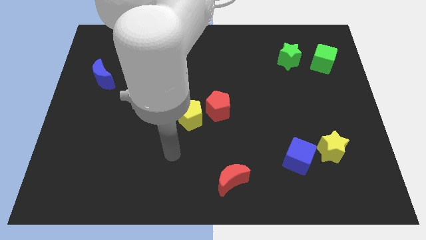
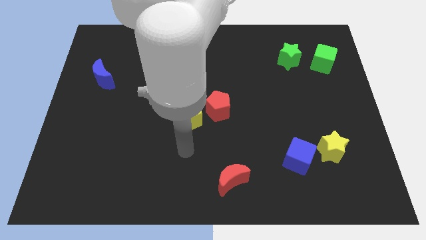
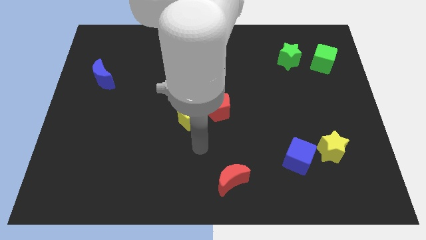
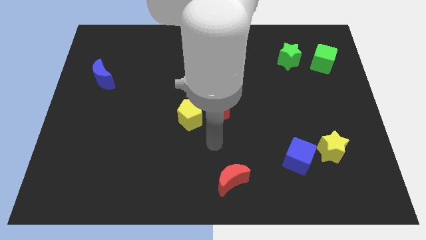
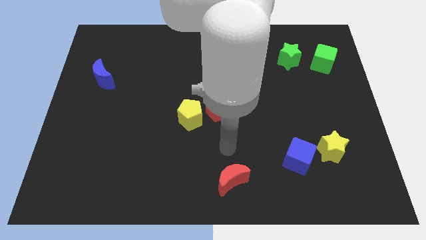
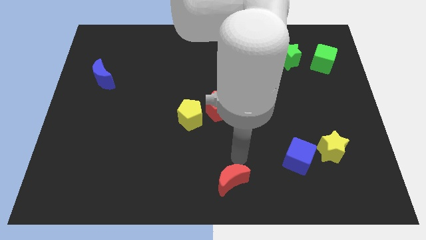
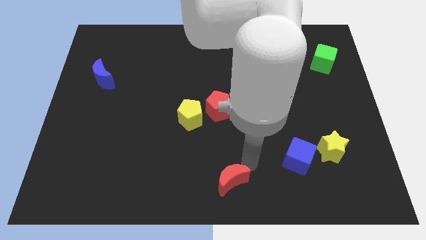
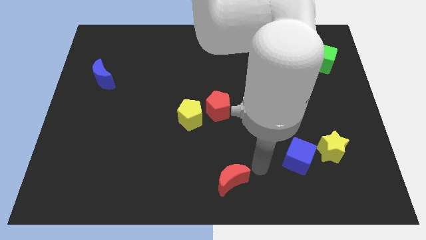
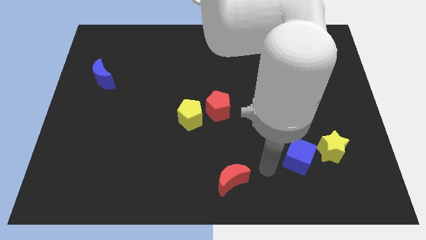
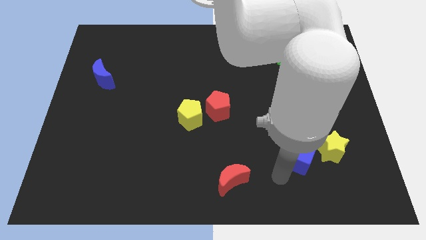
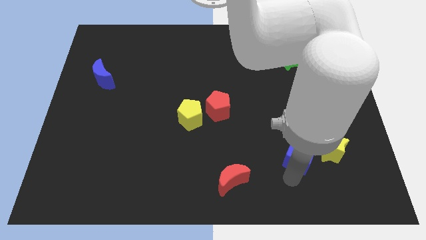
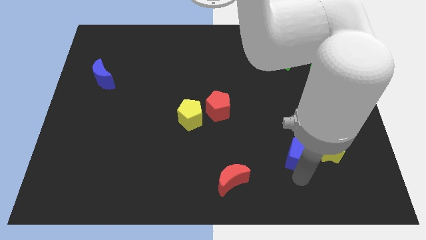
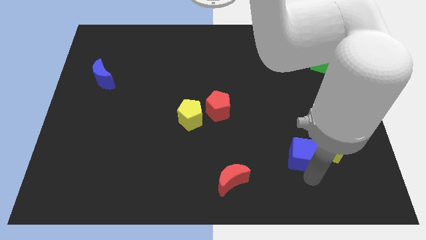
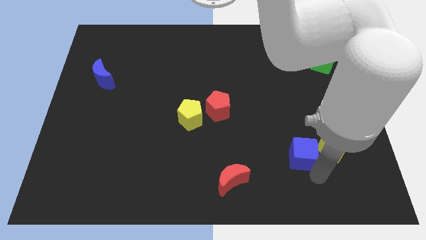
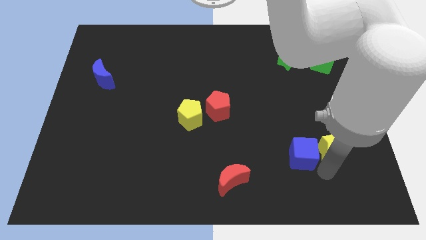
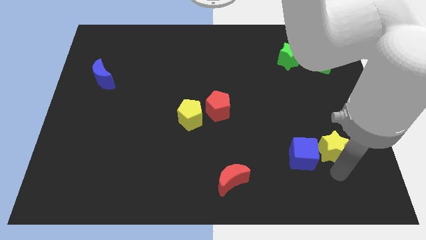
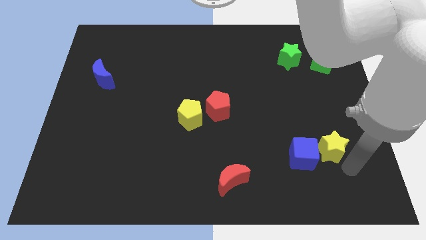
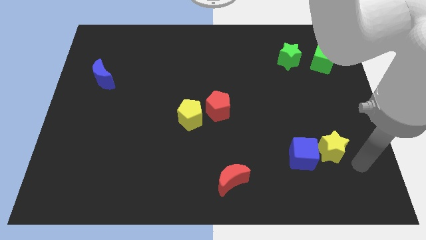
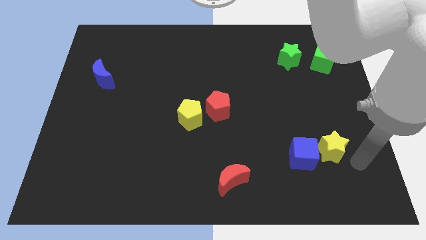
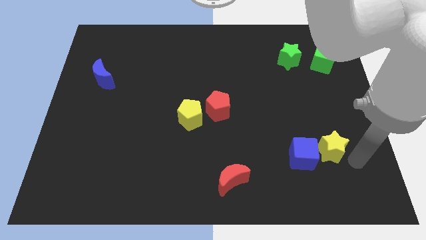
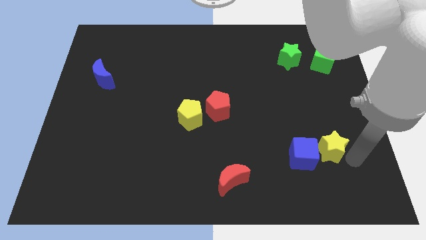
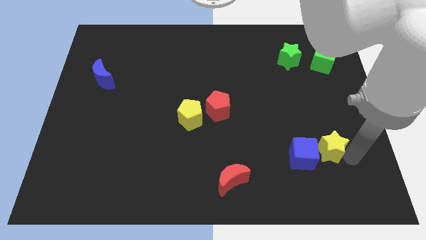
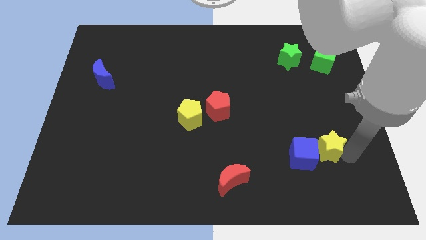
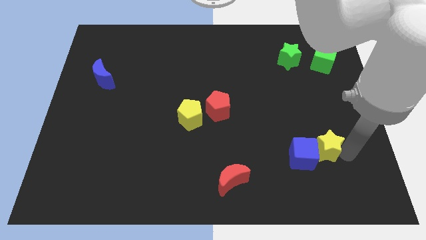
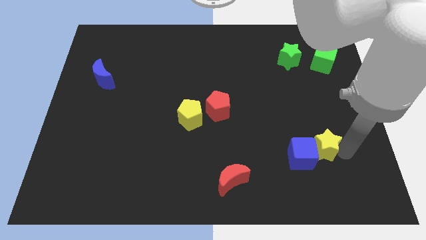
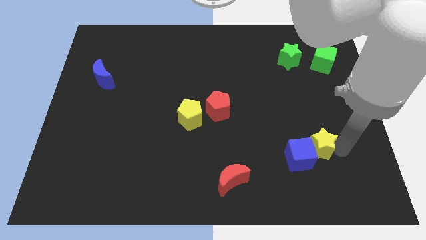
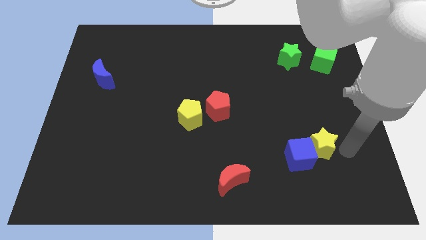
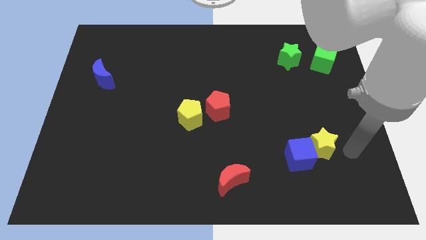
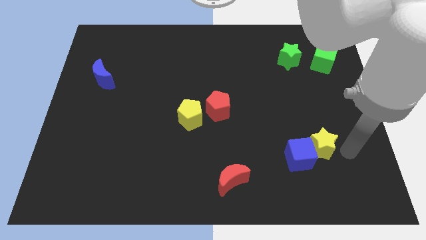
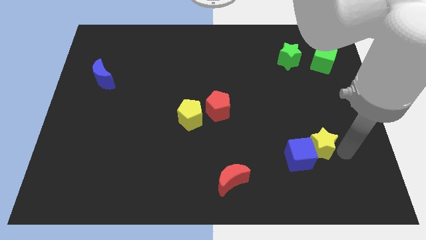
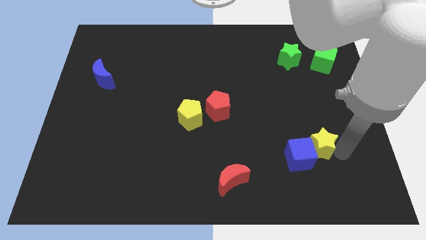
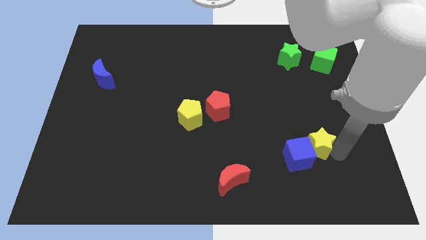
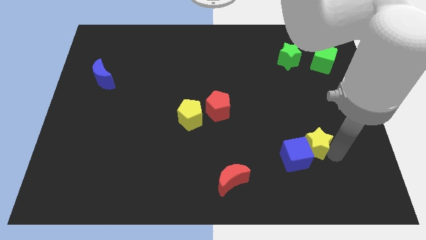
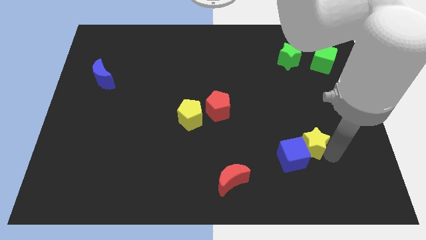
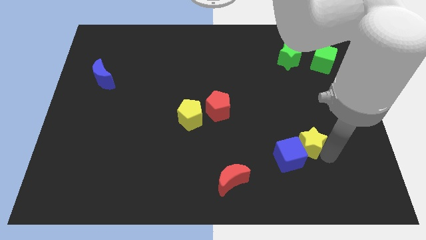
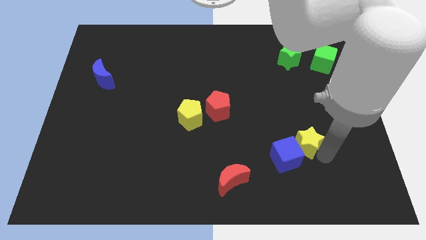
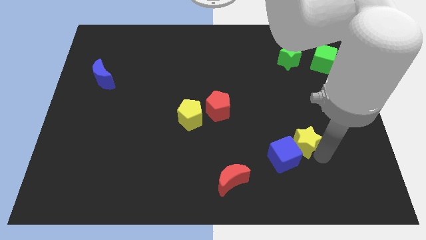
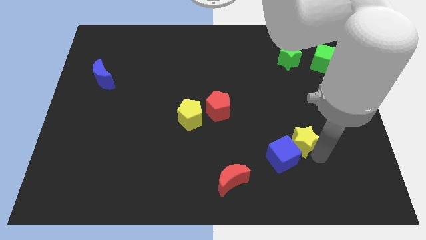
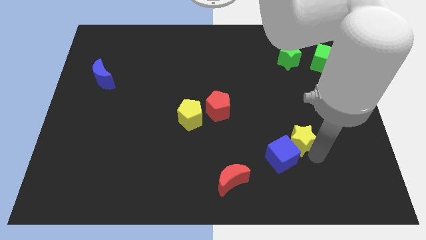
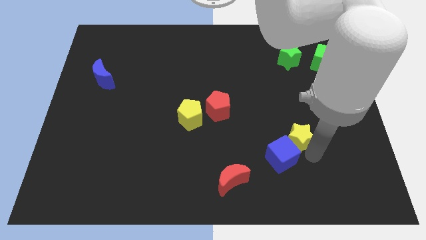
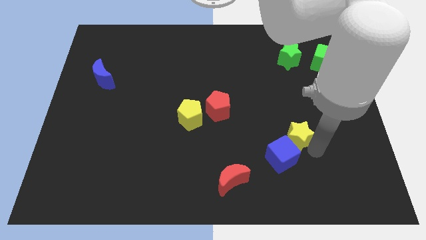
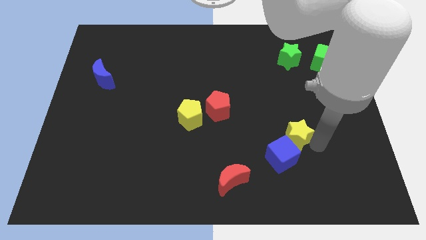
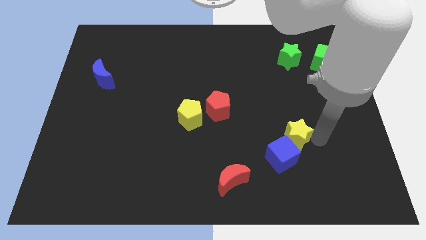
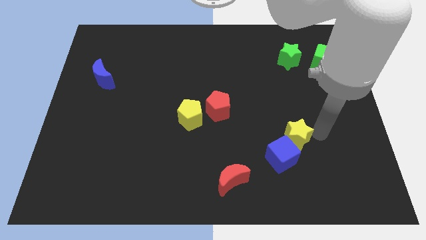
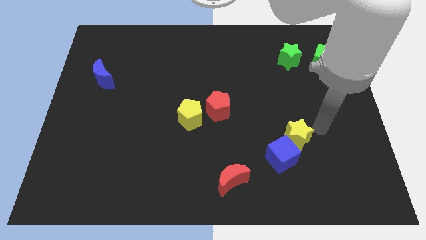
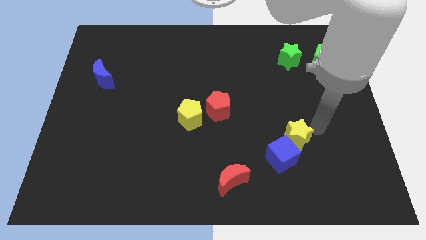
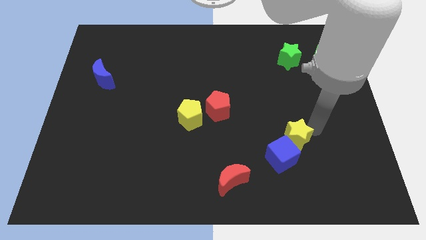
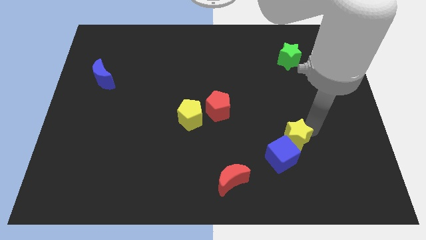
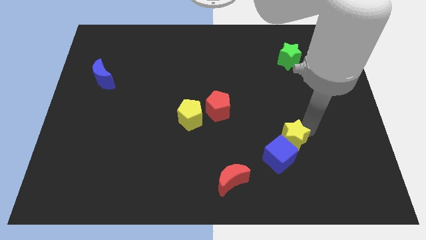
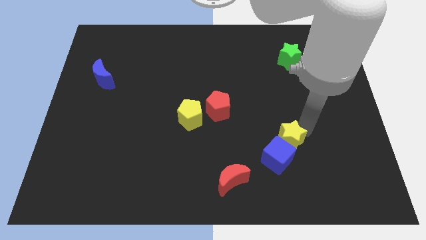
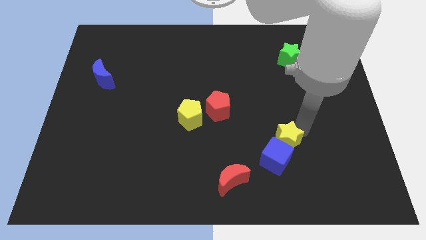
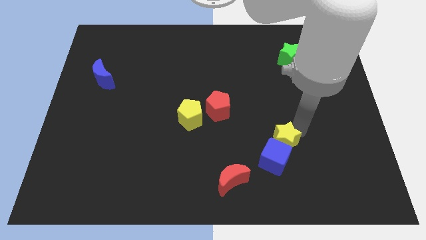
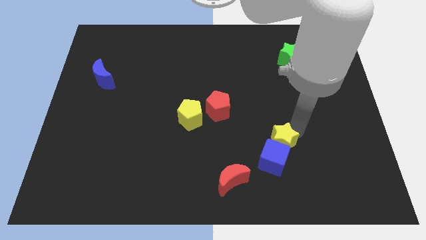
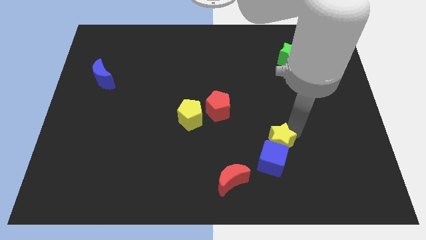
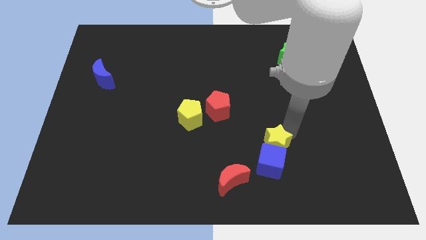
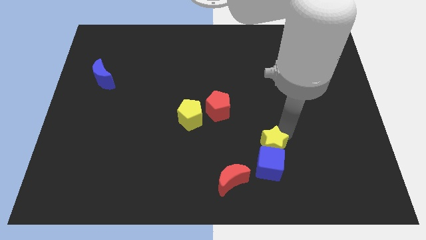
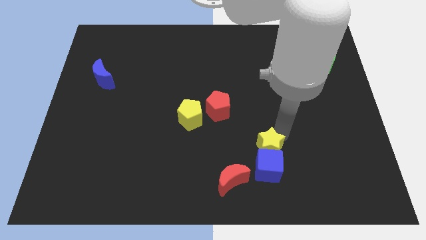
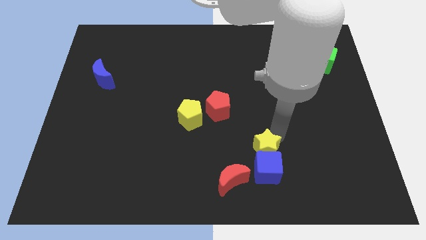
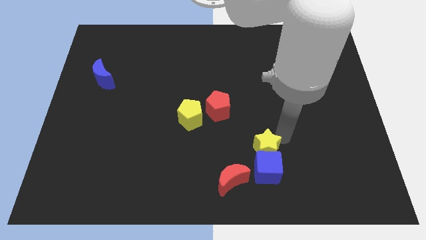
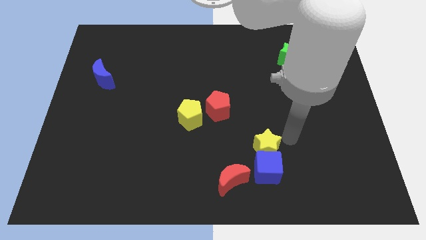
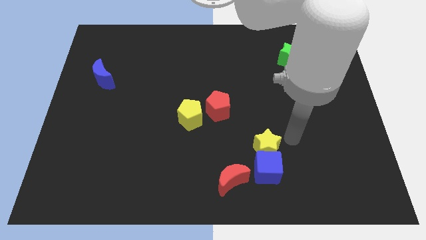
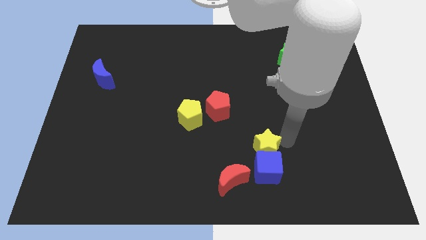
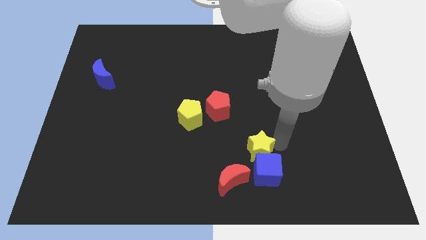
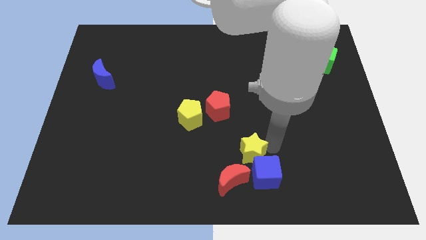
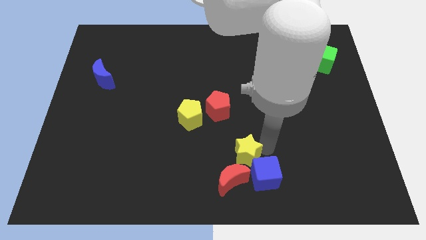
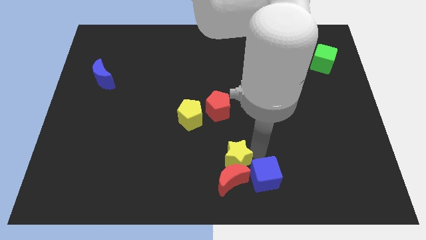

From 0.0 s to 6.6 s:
push the yellow star left

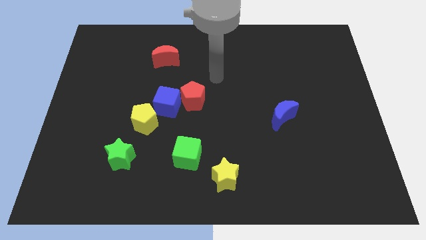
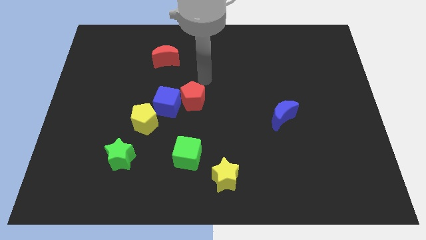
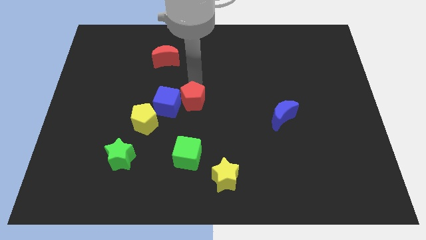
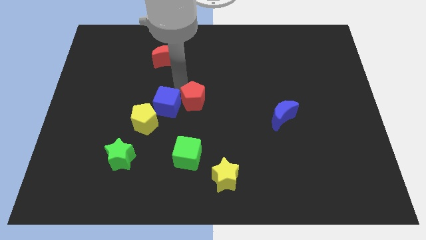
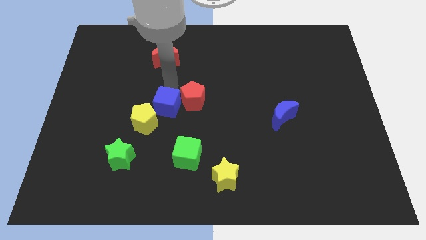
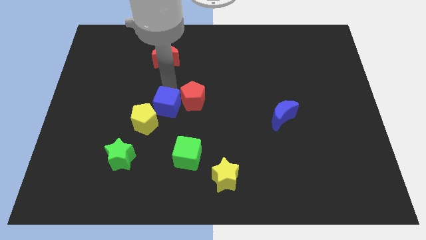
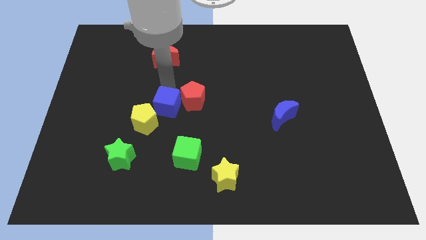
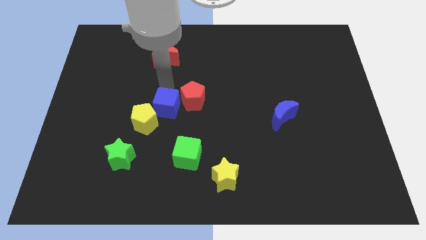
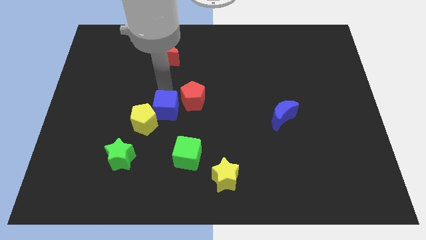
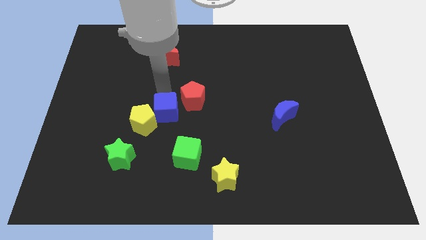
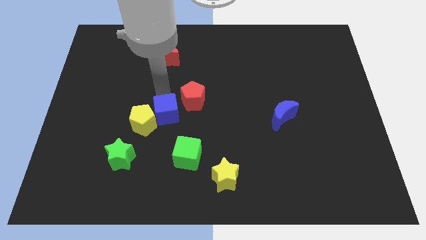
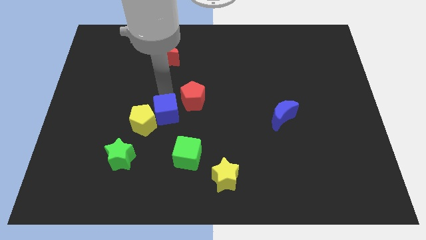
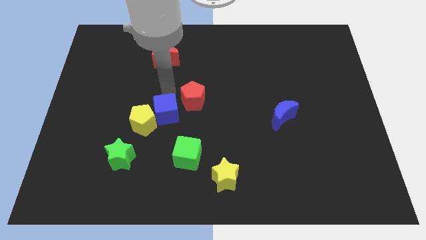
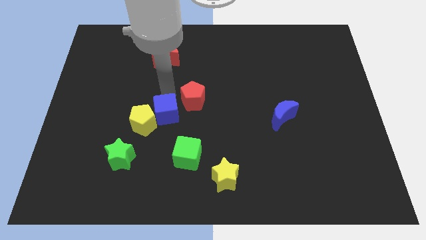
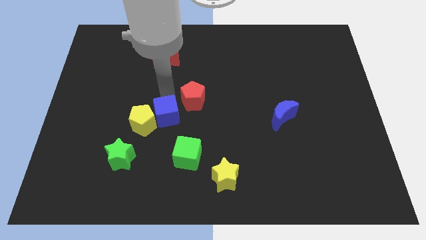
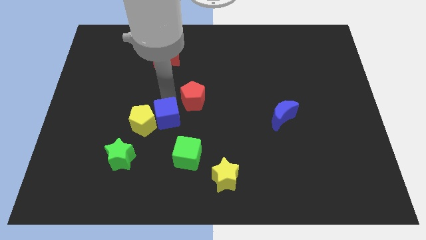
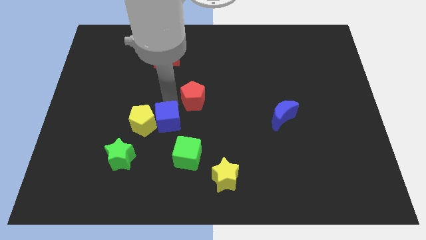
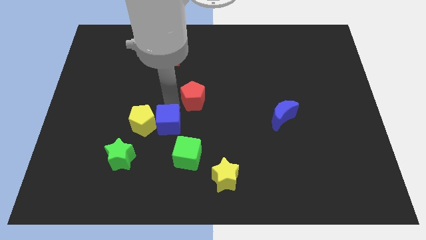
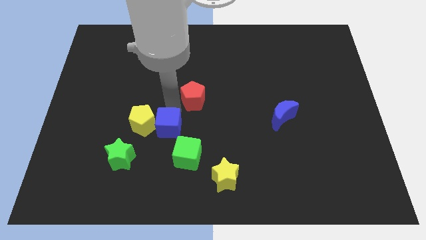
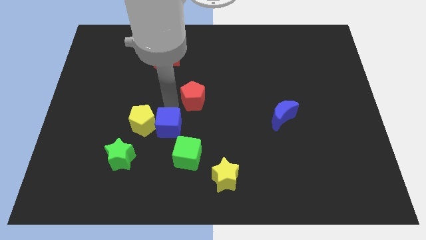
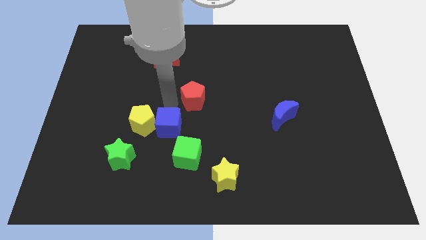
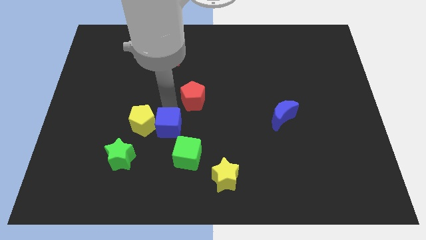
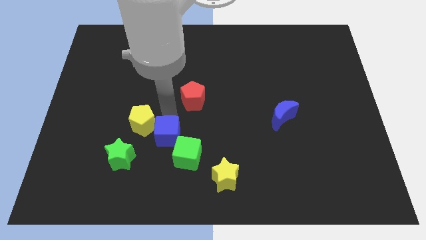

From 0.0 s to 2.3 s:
slightly push the blue cube downwards
